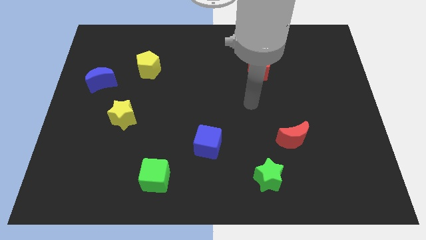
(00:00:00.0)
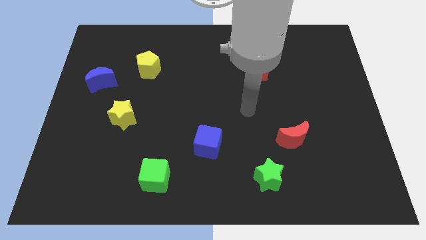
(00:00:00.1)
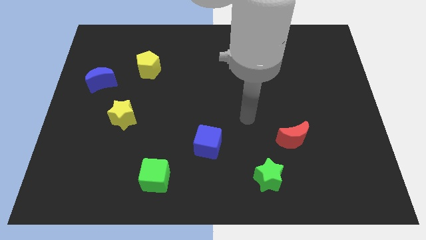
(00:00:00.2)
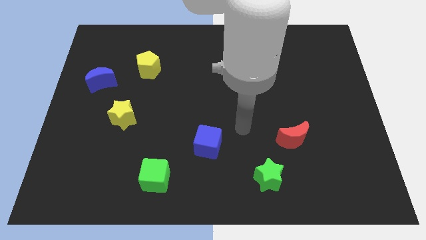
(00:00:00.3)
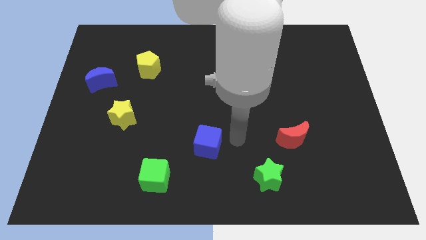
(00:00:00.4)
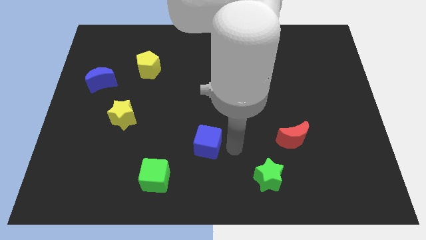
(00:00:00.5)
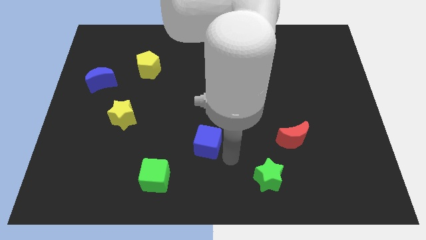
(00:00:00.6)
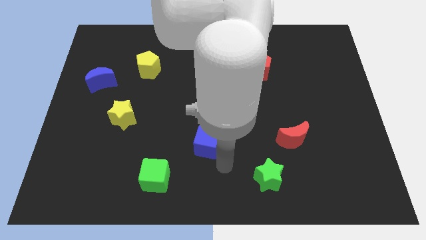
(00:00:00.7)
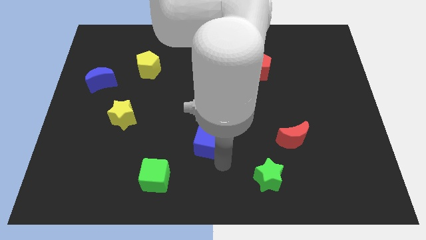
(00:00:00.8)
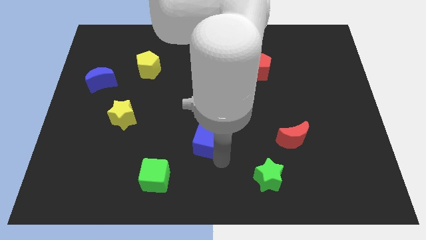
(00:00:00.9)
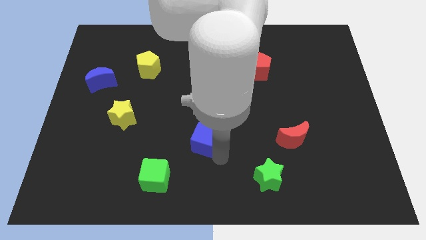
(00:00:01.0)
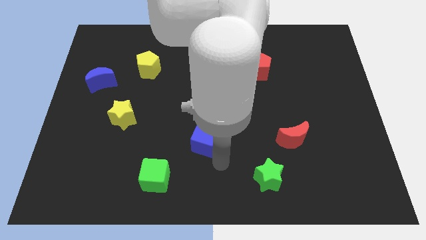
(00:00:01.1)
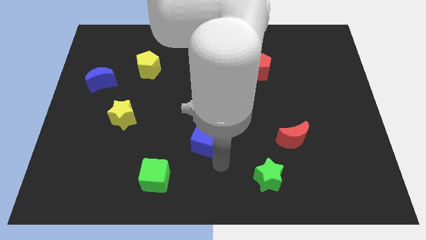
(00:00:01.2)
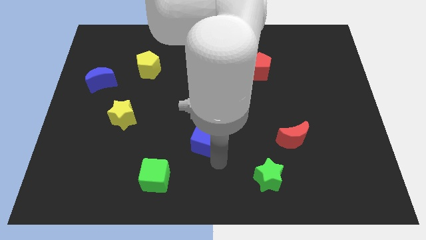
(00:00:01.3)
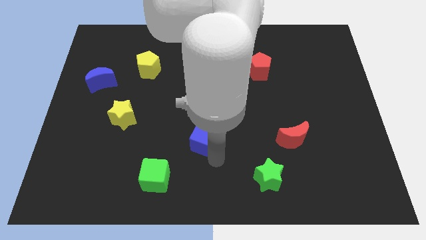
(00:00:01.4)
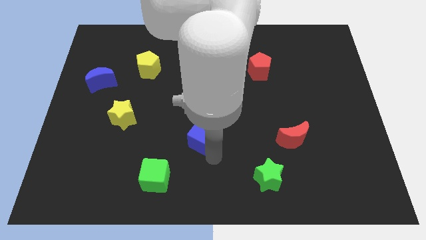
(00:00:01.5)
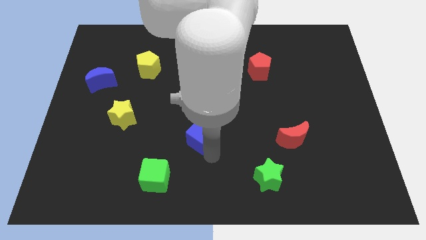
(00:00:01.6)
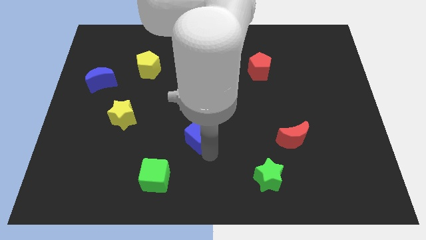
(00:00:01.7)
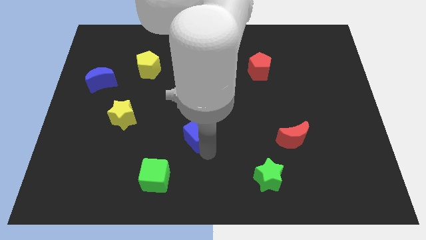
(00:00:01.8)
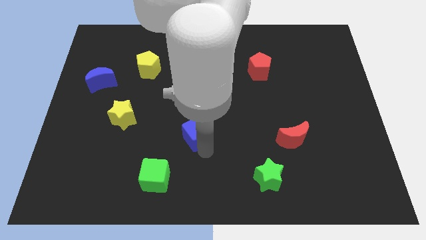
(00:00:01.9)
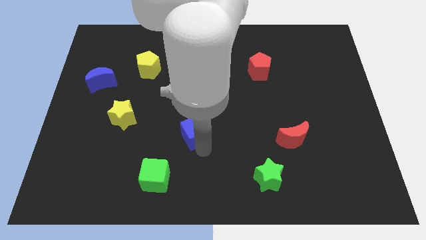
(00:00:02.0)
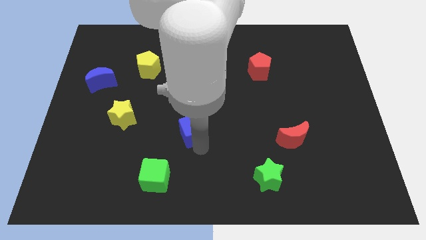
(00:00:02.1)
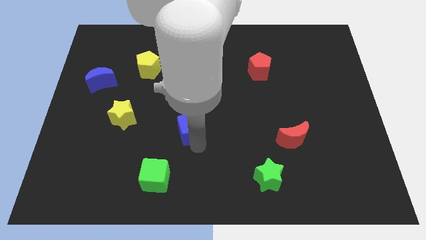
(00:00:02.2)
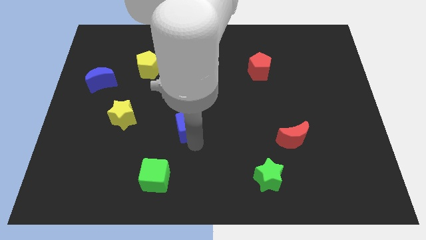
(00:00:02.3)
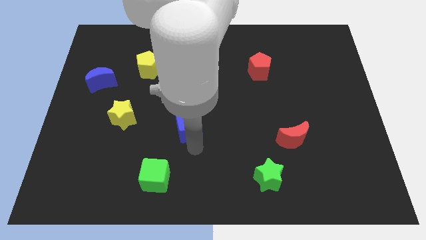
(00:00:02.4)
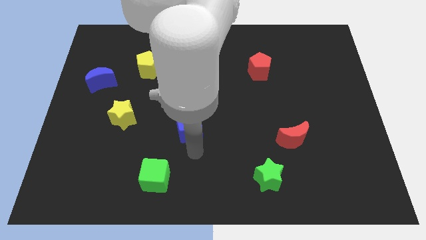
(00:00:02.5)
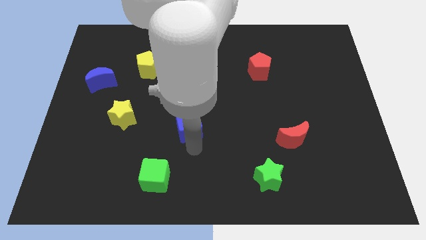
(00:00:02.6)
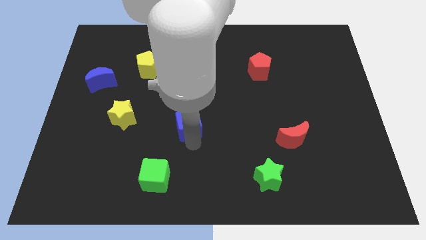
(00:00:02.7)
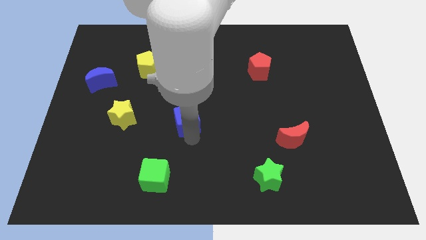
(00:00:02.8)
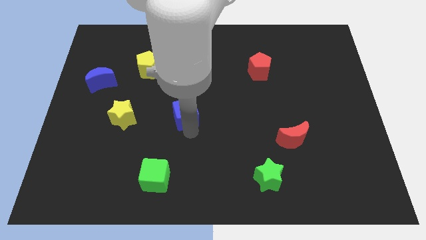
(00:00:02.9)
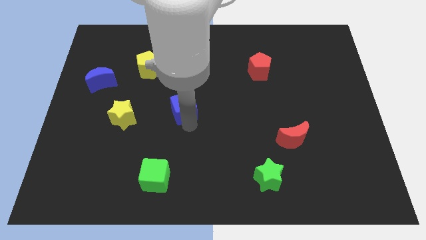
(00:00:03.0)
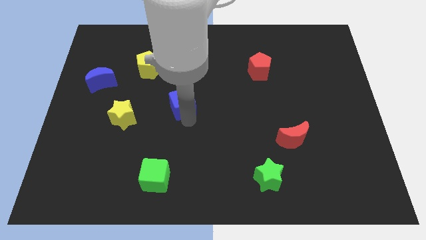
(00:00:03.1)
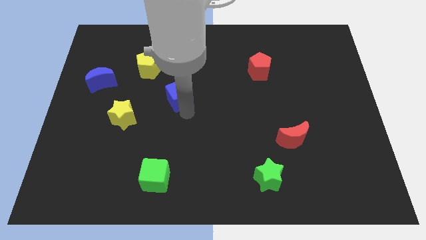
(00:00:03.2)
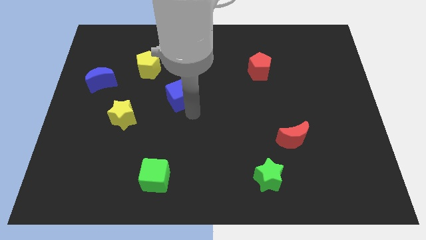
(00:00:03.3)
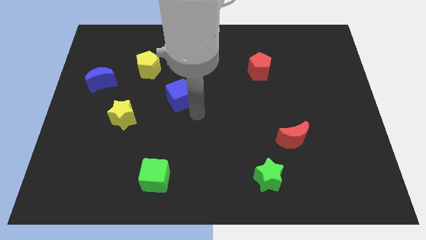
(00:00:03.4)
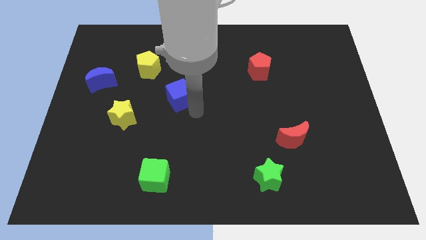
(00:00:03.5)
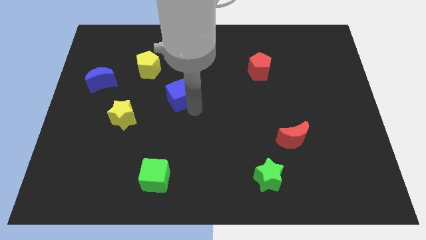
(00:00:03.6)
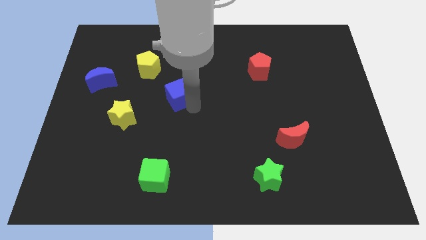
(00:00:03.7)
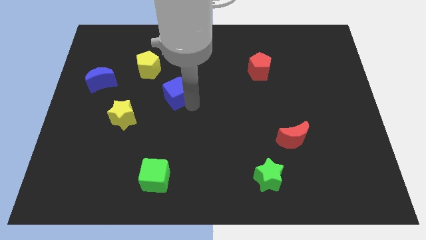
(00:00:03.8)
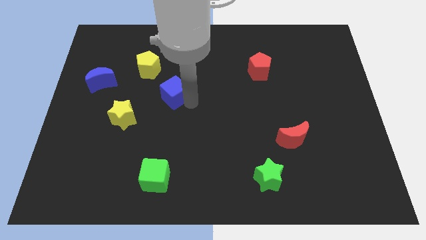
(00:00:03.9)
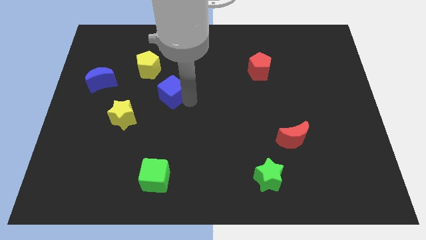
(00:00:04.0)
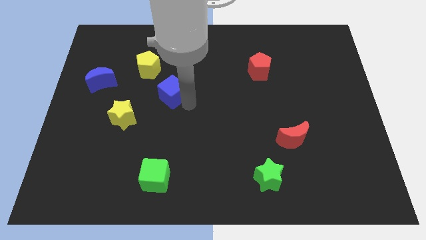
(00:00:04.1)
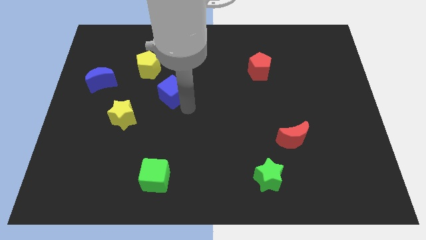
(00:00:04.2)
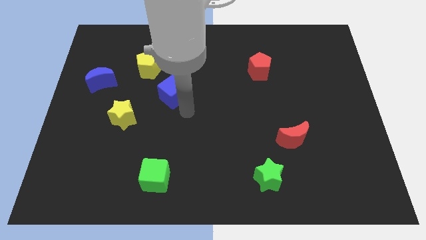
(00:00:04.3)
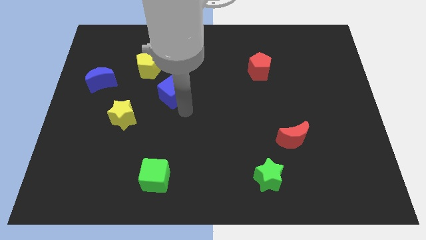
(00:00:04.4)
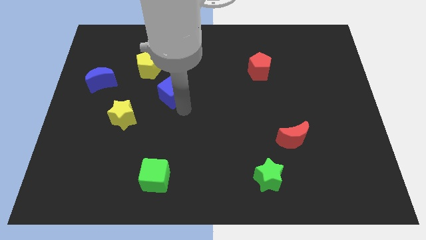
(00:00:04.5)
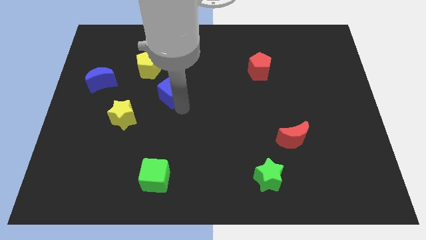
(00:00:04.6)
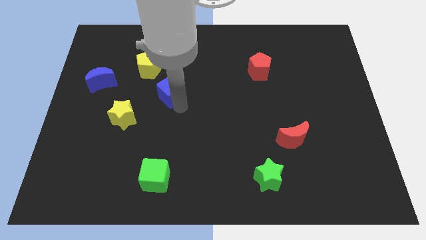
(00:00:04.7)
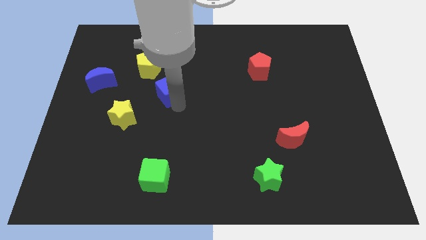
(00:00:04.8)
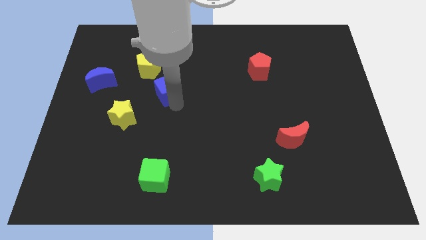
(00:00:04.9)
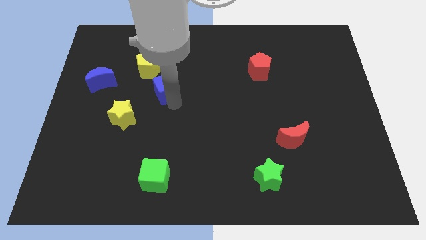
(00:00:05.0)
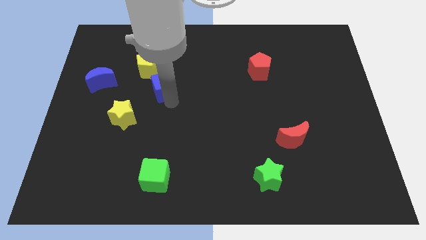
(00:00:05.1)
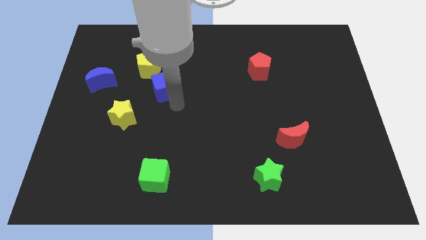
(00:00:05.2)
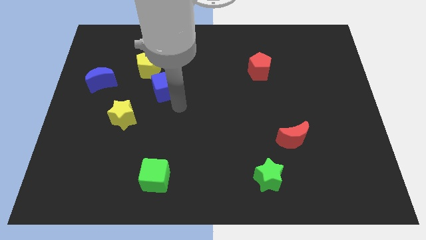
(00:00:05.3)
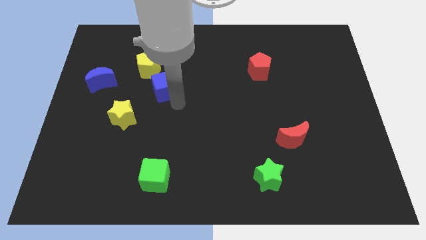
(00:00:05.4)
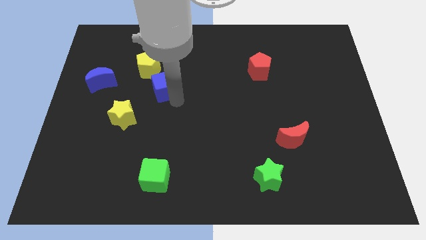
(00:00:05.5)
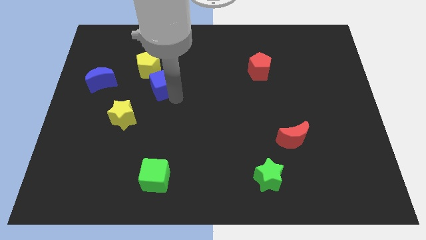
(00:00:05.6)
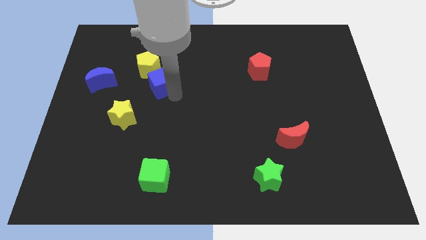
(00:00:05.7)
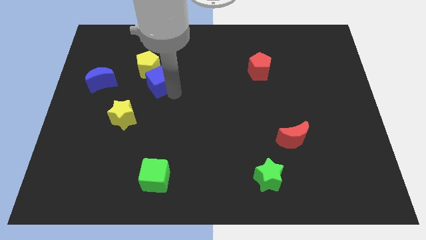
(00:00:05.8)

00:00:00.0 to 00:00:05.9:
push the blue cube to the yellow pentagon

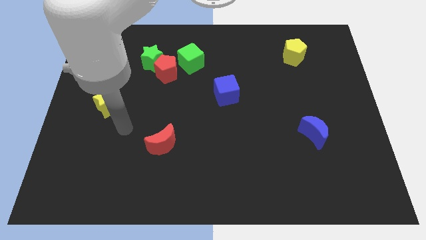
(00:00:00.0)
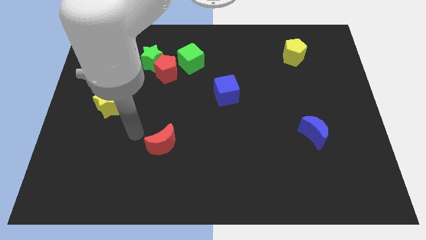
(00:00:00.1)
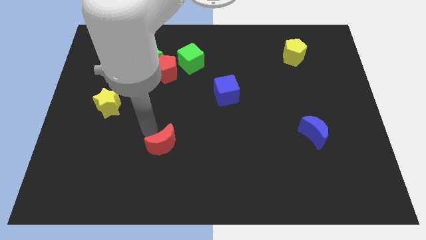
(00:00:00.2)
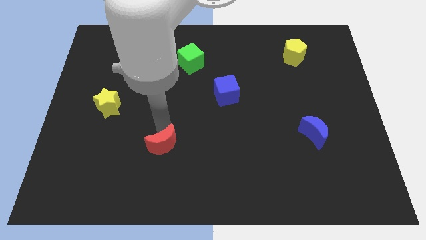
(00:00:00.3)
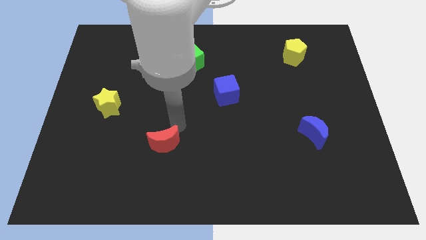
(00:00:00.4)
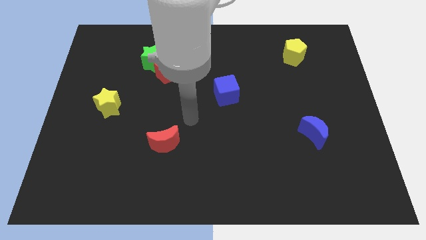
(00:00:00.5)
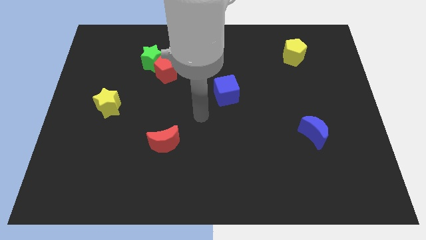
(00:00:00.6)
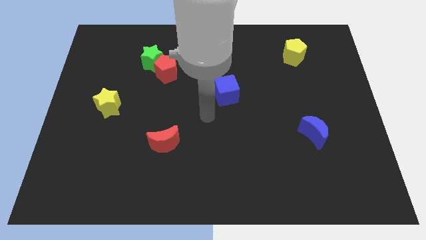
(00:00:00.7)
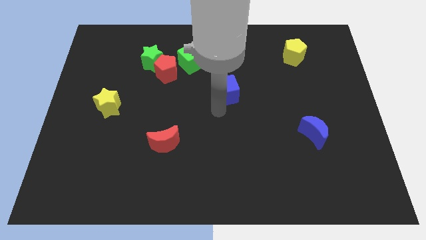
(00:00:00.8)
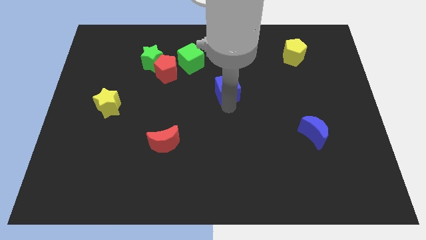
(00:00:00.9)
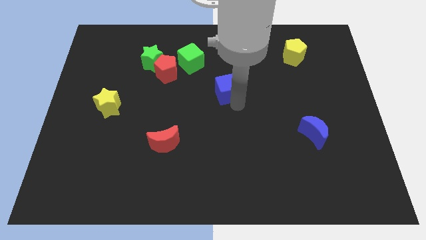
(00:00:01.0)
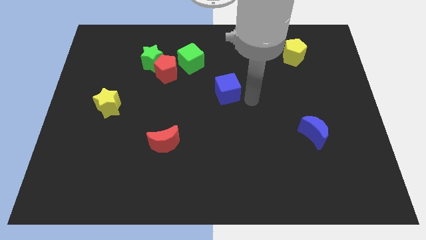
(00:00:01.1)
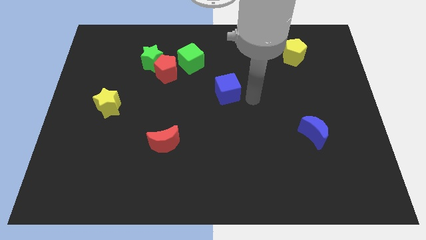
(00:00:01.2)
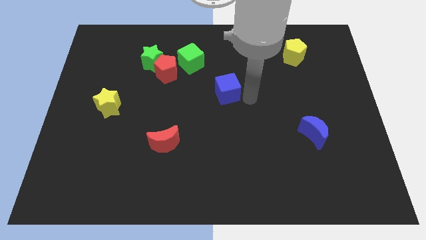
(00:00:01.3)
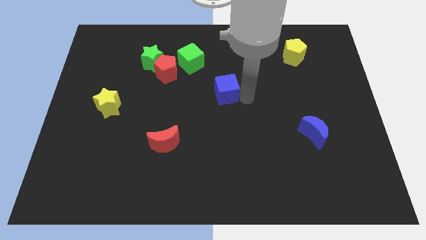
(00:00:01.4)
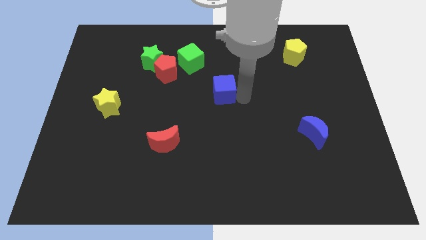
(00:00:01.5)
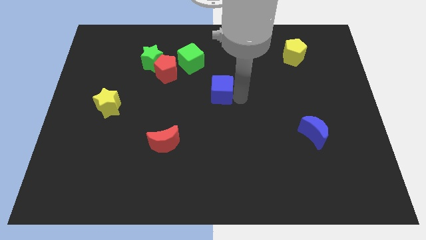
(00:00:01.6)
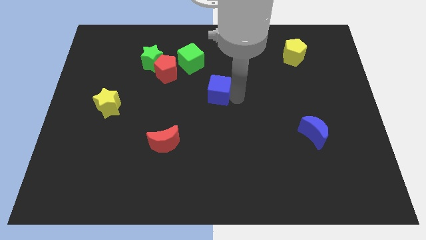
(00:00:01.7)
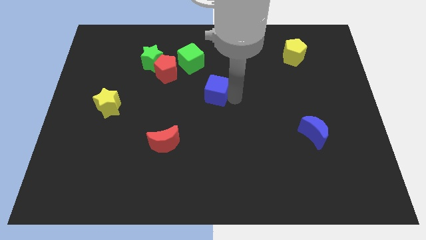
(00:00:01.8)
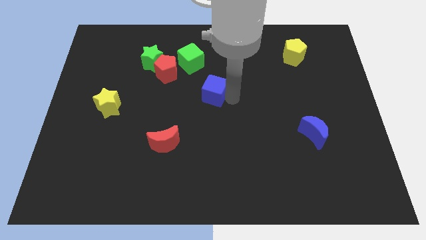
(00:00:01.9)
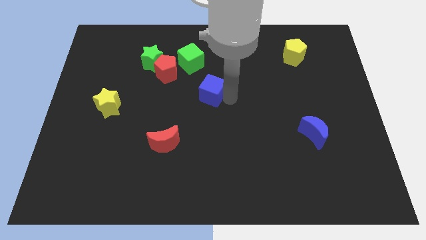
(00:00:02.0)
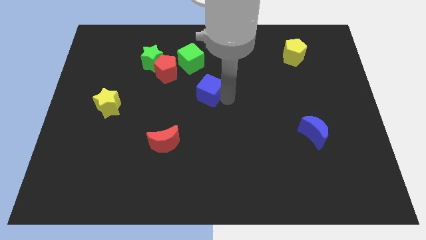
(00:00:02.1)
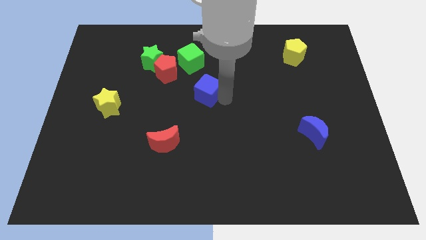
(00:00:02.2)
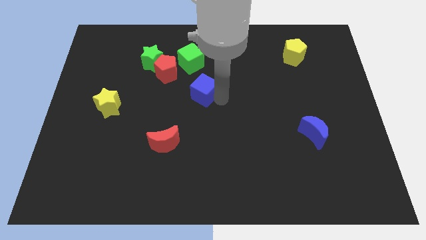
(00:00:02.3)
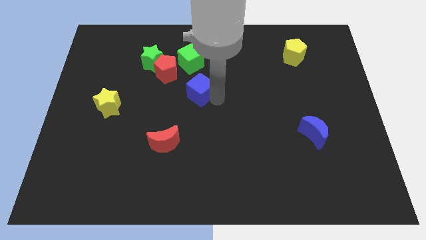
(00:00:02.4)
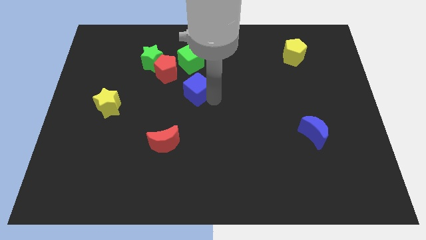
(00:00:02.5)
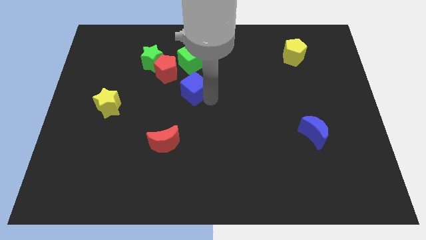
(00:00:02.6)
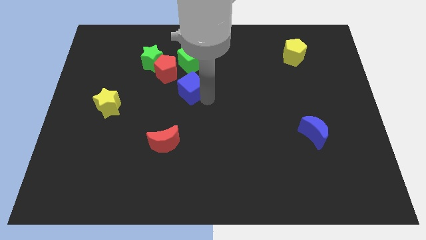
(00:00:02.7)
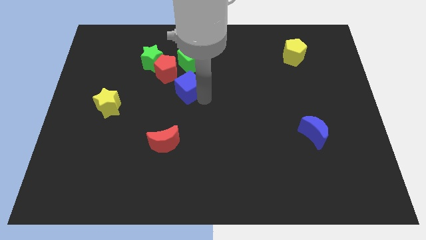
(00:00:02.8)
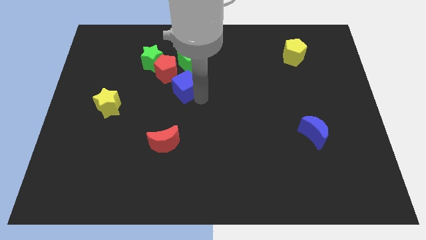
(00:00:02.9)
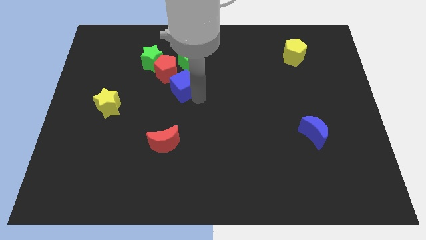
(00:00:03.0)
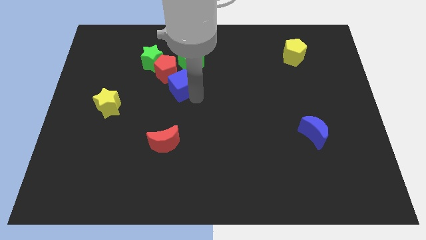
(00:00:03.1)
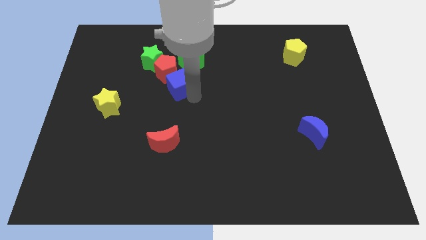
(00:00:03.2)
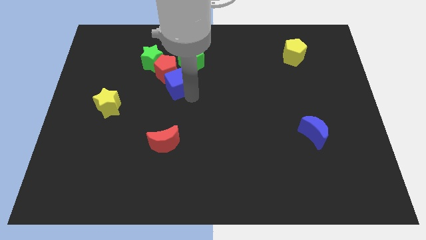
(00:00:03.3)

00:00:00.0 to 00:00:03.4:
put the blue cube next to the red pentagon
